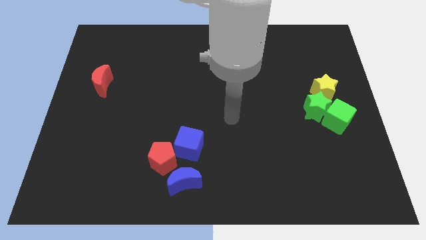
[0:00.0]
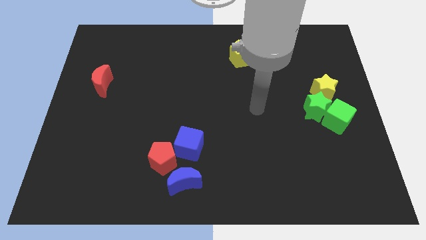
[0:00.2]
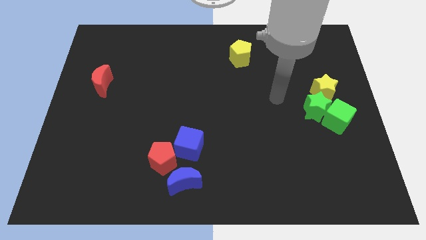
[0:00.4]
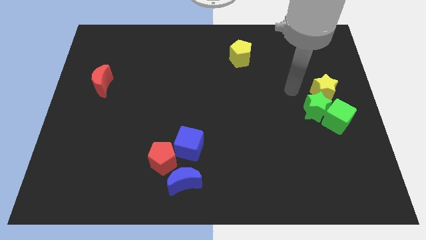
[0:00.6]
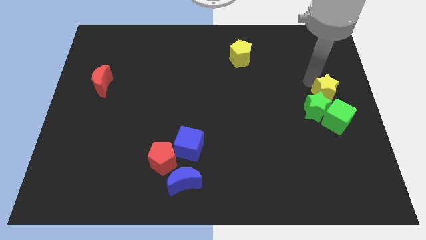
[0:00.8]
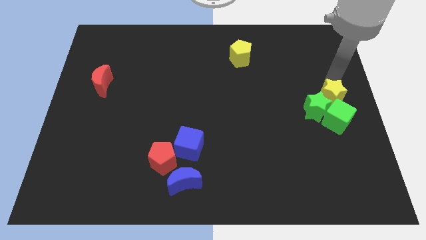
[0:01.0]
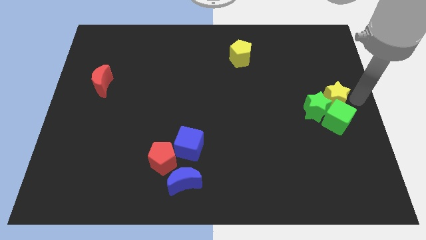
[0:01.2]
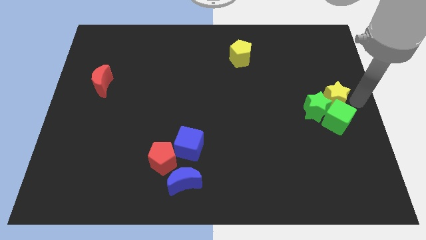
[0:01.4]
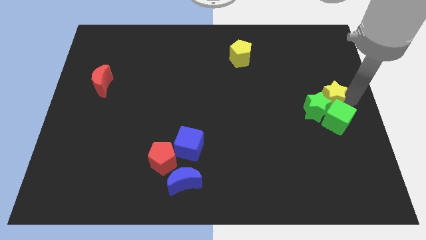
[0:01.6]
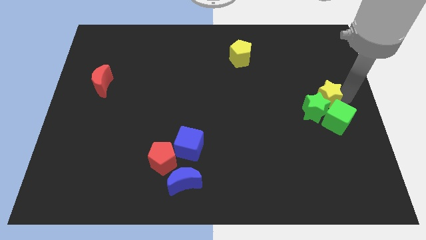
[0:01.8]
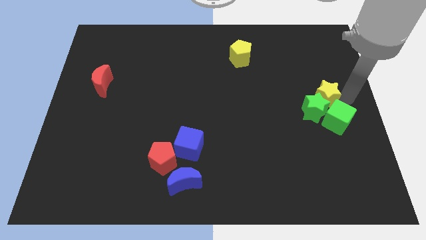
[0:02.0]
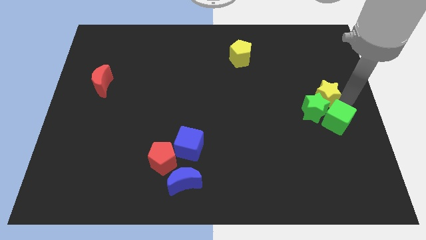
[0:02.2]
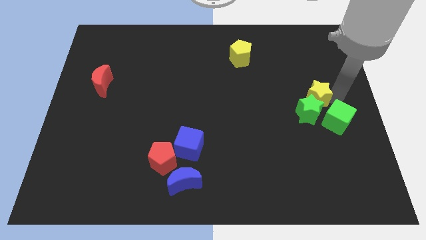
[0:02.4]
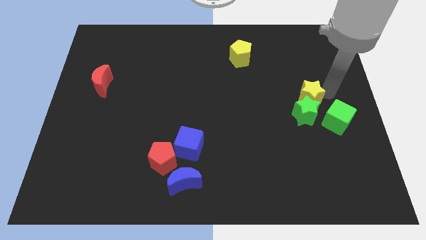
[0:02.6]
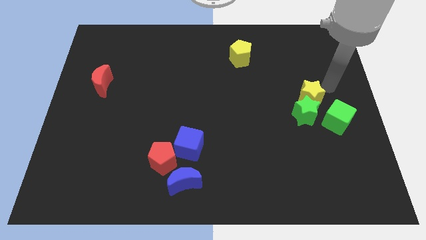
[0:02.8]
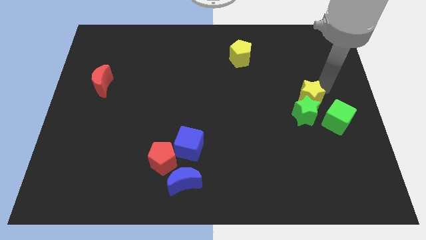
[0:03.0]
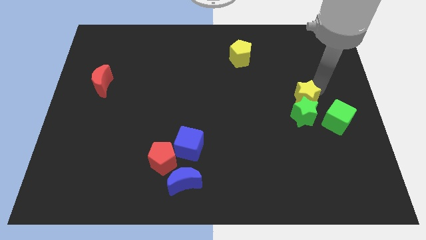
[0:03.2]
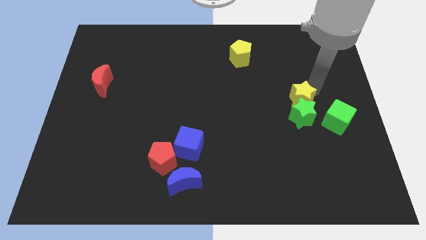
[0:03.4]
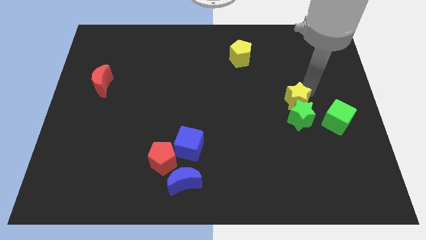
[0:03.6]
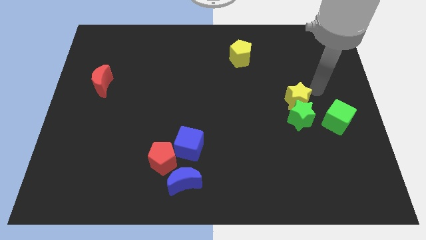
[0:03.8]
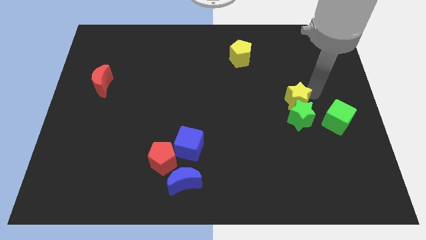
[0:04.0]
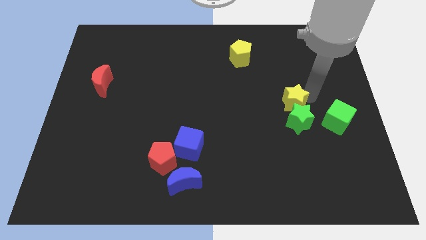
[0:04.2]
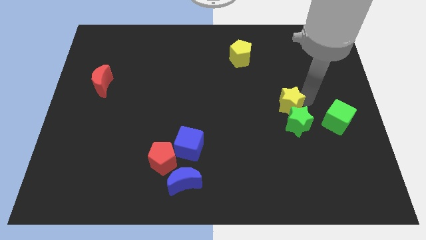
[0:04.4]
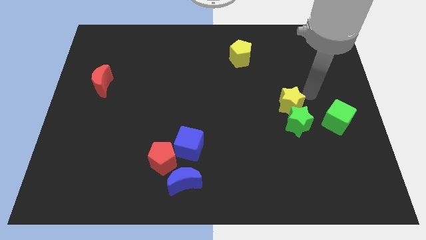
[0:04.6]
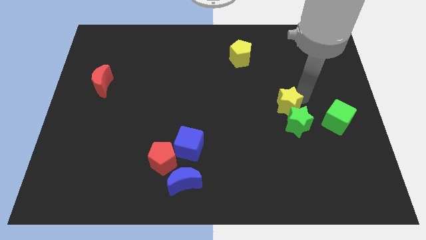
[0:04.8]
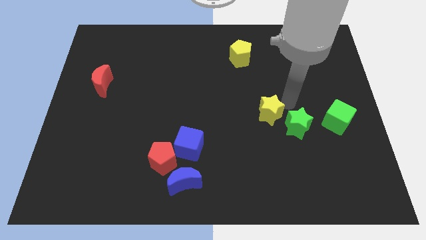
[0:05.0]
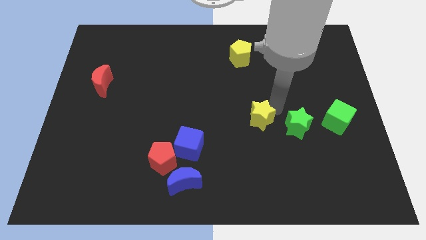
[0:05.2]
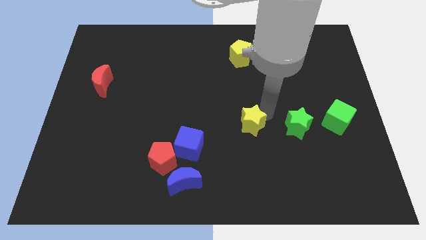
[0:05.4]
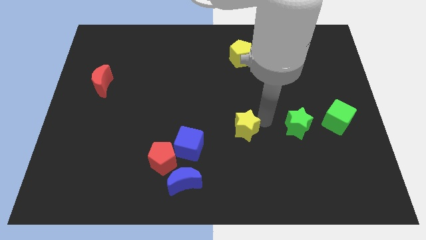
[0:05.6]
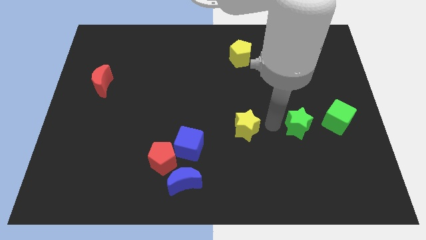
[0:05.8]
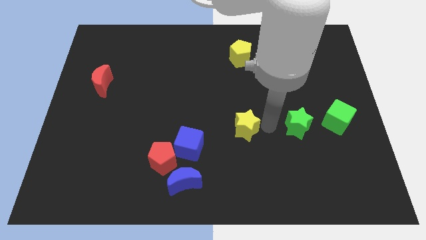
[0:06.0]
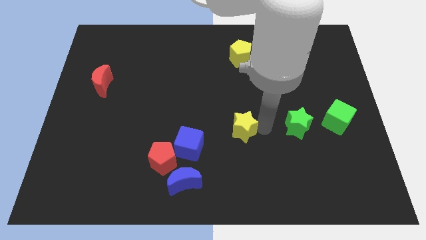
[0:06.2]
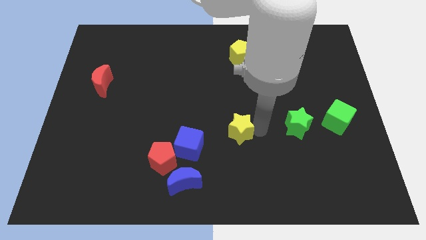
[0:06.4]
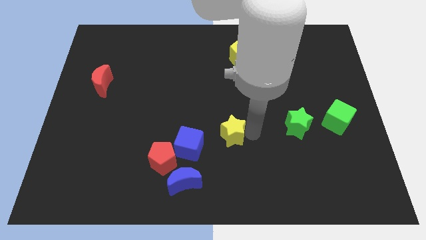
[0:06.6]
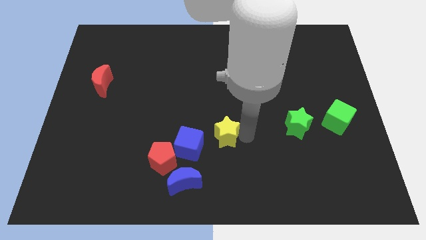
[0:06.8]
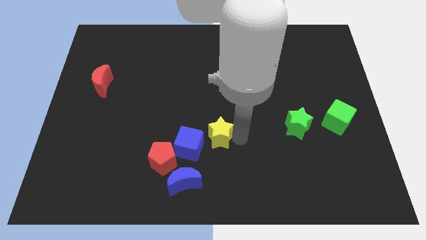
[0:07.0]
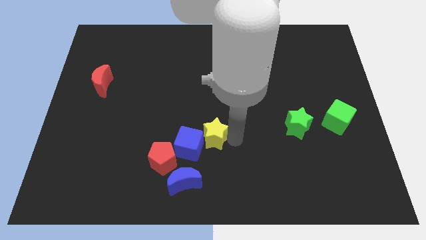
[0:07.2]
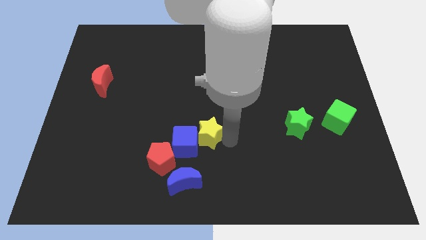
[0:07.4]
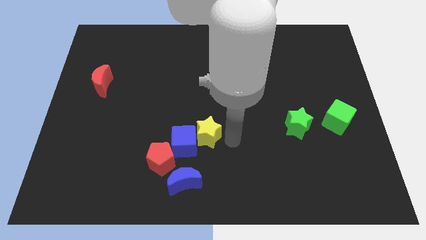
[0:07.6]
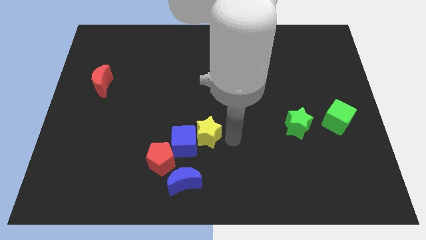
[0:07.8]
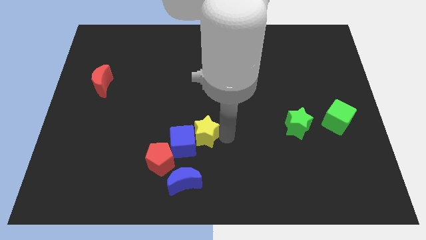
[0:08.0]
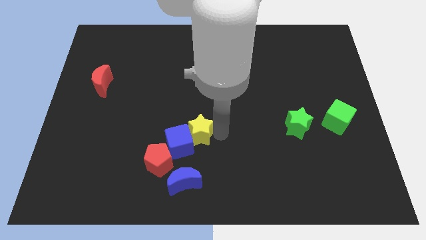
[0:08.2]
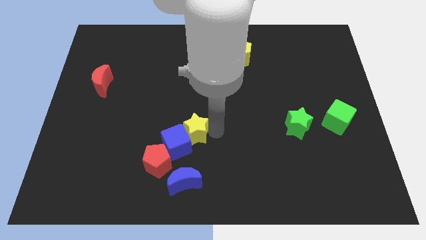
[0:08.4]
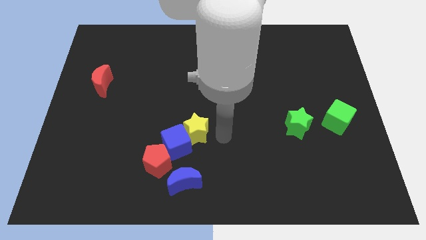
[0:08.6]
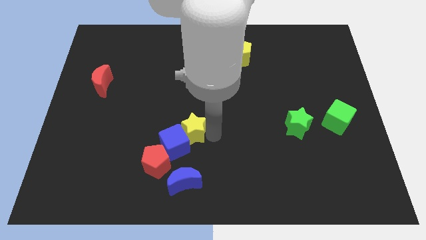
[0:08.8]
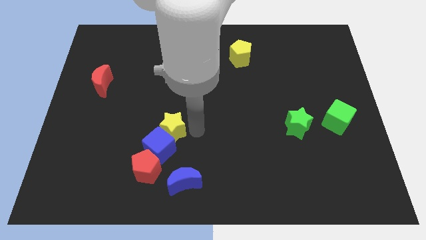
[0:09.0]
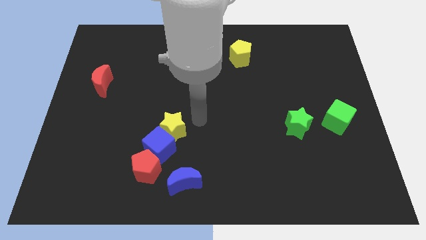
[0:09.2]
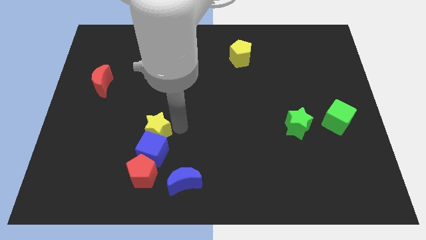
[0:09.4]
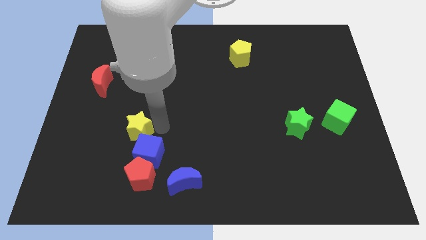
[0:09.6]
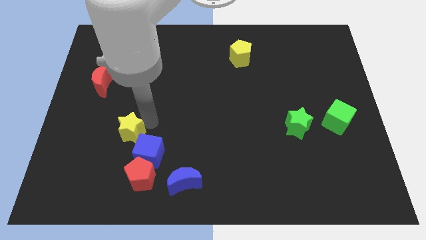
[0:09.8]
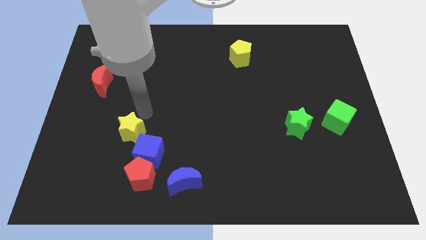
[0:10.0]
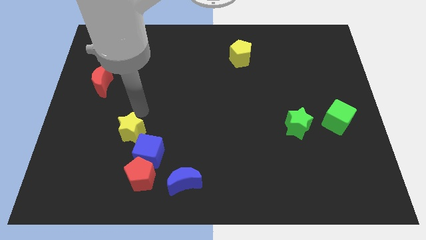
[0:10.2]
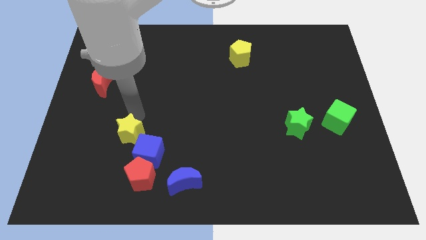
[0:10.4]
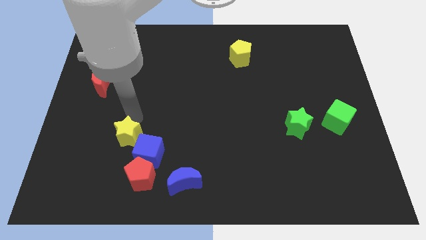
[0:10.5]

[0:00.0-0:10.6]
move the yellow star to the top left side of the red pentagon

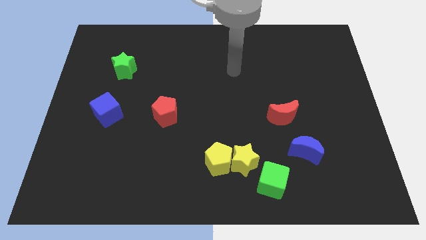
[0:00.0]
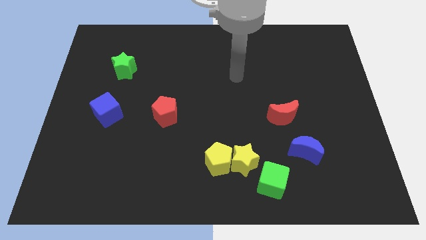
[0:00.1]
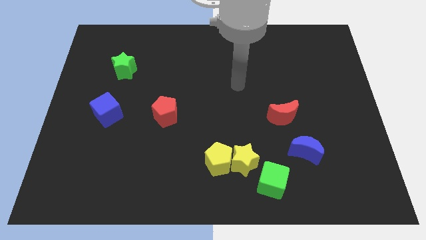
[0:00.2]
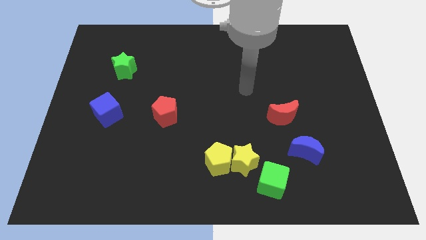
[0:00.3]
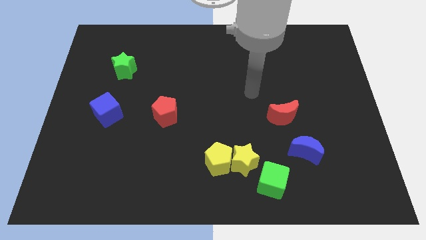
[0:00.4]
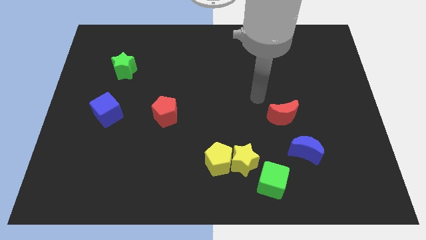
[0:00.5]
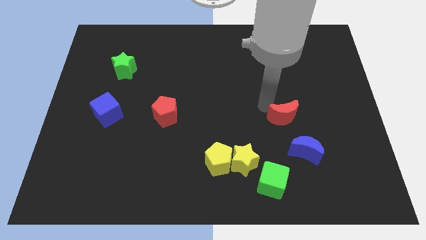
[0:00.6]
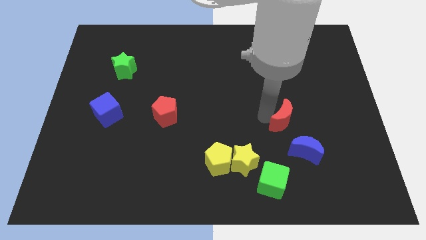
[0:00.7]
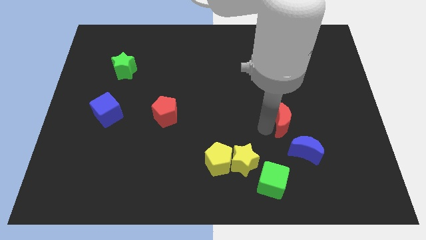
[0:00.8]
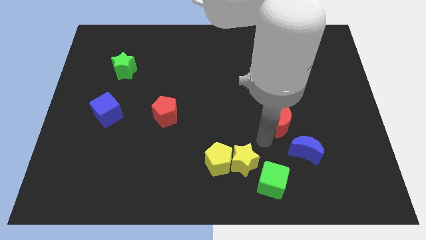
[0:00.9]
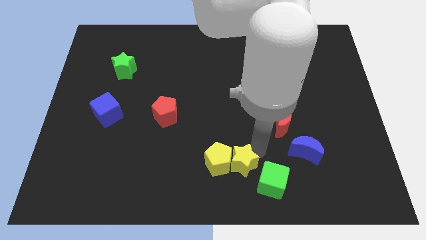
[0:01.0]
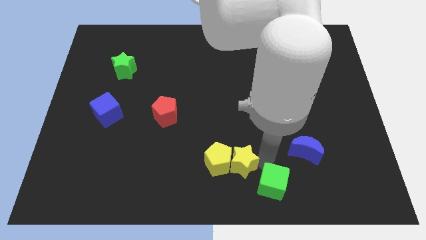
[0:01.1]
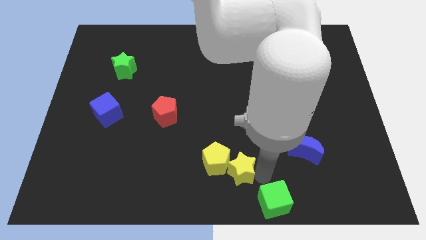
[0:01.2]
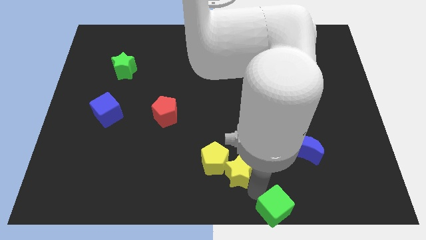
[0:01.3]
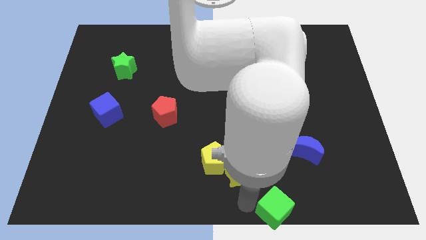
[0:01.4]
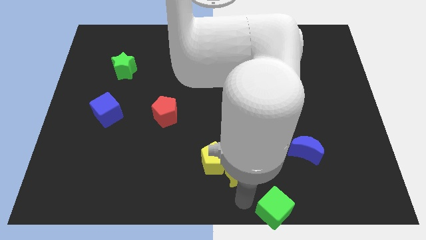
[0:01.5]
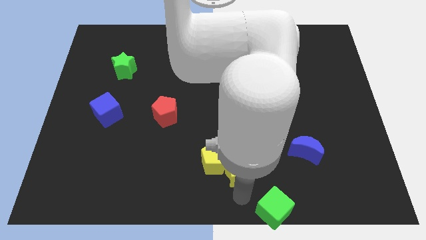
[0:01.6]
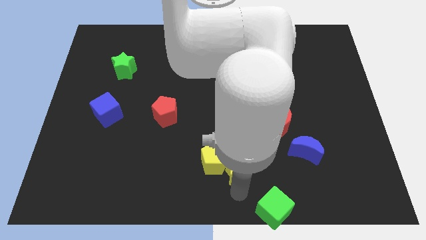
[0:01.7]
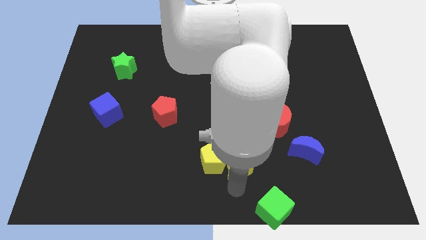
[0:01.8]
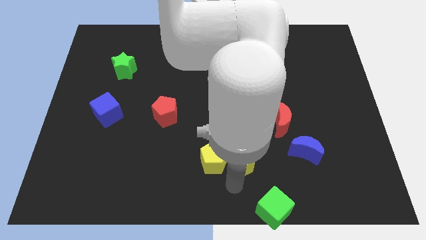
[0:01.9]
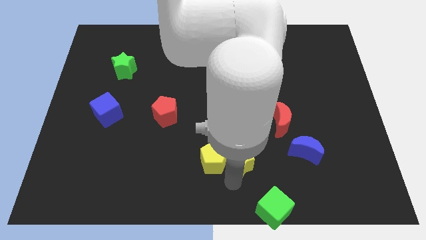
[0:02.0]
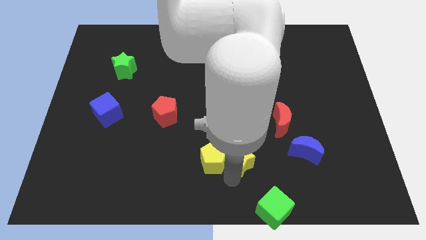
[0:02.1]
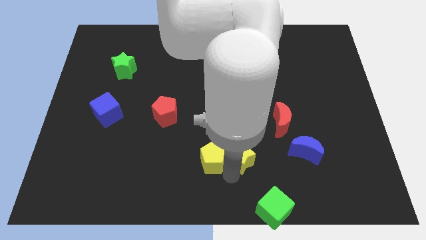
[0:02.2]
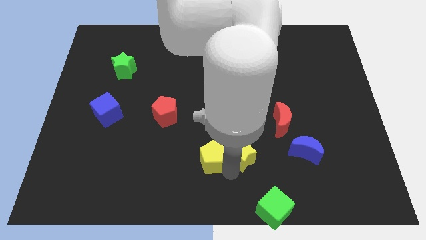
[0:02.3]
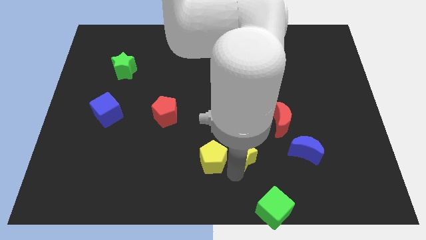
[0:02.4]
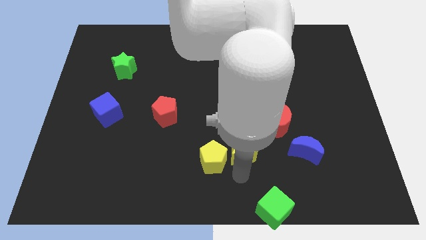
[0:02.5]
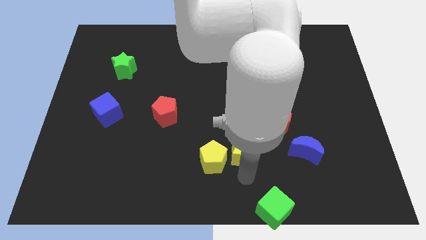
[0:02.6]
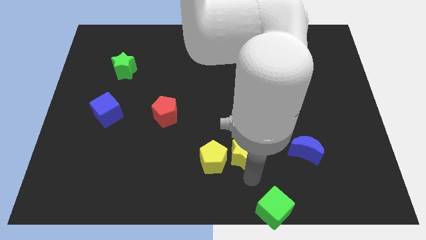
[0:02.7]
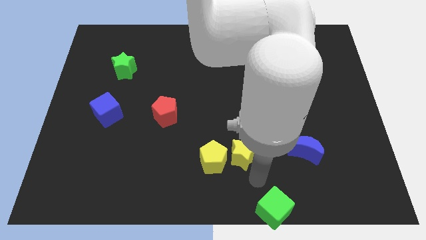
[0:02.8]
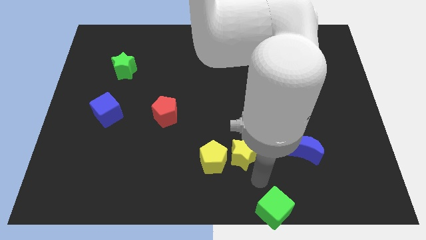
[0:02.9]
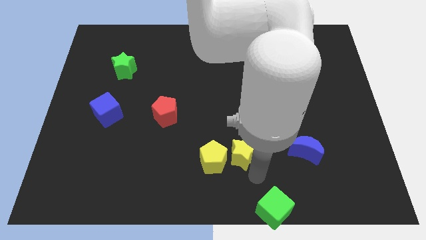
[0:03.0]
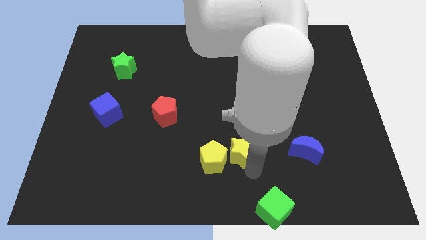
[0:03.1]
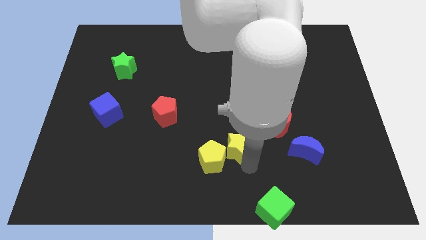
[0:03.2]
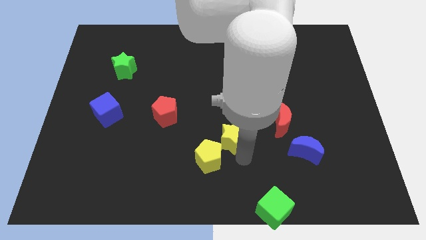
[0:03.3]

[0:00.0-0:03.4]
slide the yellow star above the yellow pentagon
